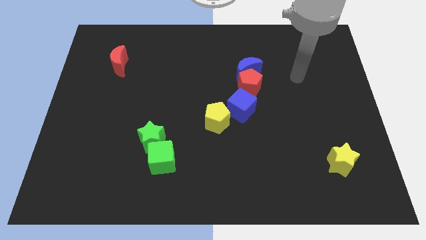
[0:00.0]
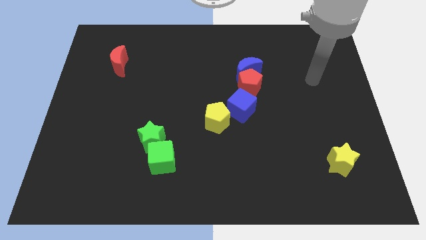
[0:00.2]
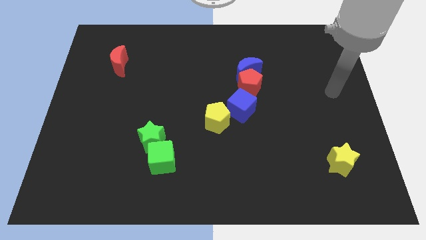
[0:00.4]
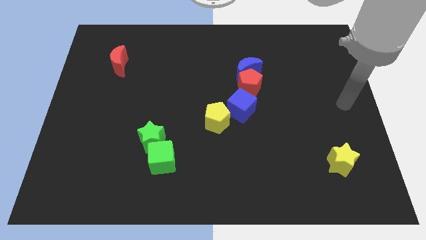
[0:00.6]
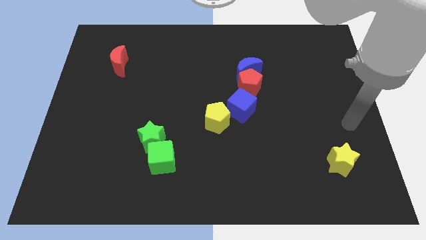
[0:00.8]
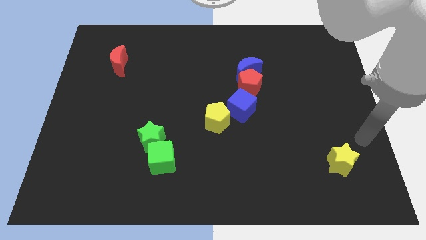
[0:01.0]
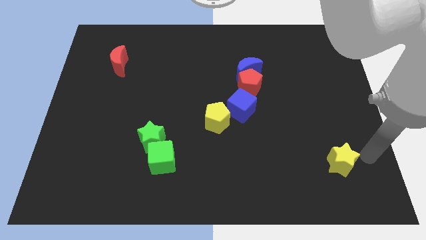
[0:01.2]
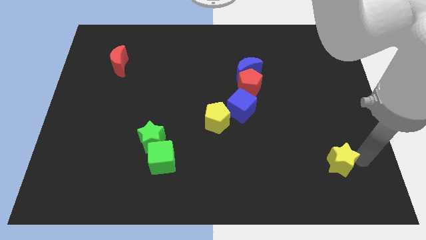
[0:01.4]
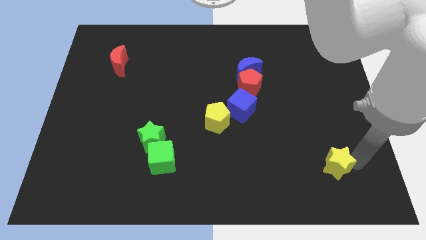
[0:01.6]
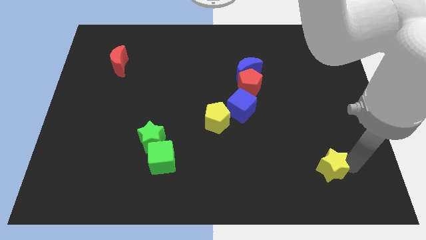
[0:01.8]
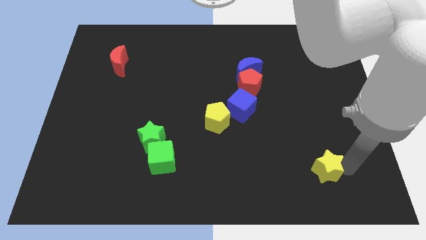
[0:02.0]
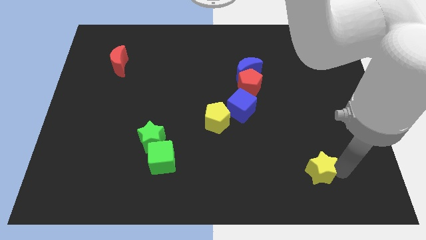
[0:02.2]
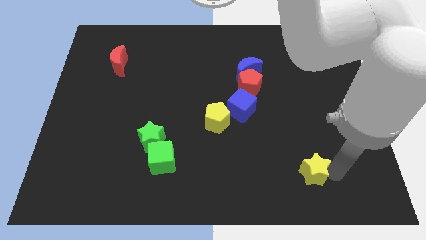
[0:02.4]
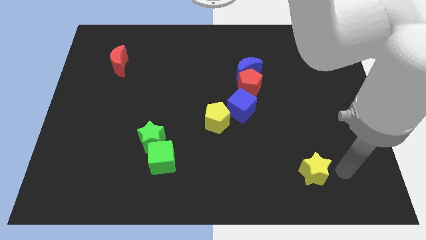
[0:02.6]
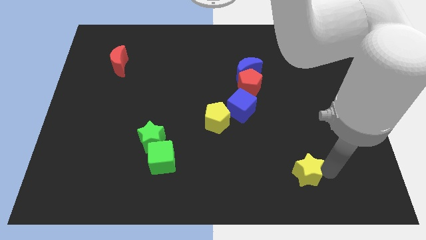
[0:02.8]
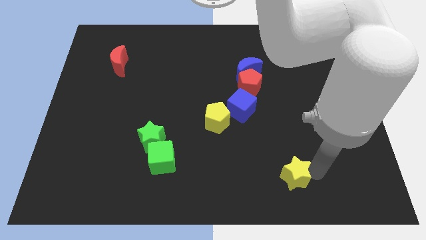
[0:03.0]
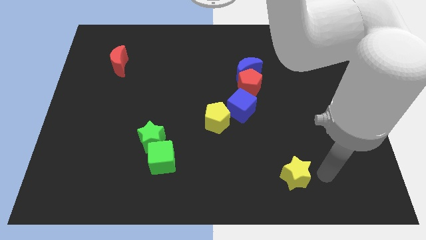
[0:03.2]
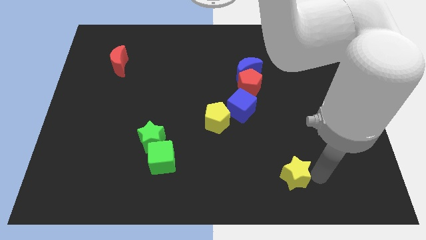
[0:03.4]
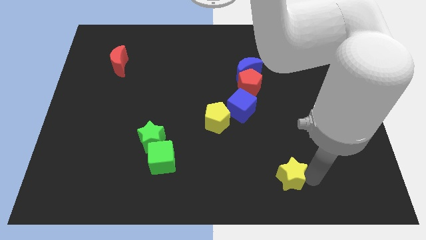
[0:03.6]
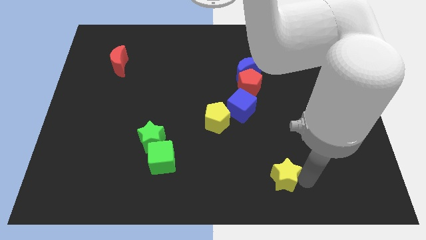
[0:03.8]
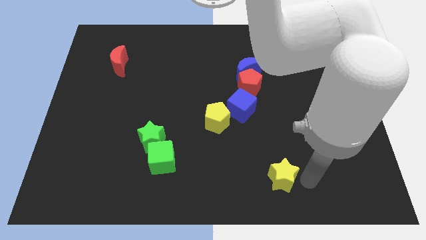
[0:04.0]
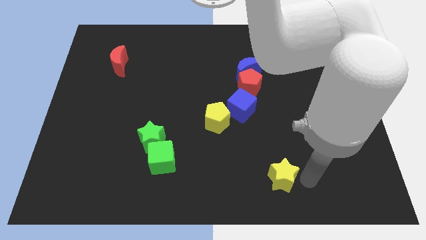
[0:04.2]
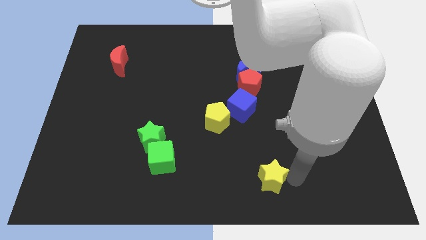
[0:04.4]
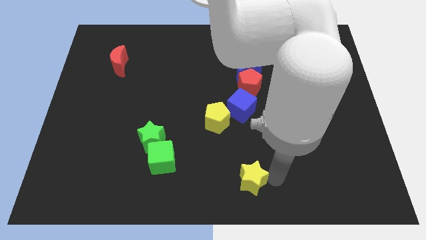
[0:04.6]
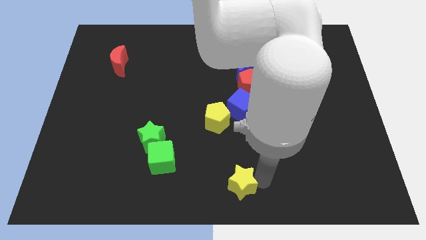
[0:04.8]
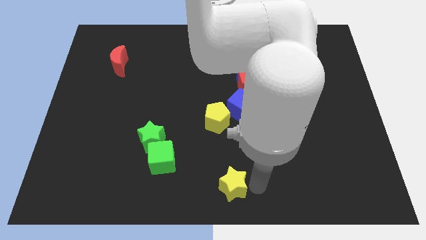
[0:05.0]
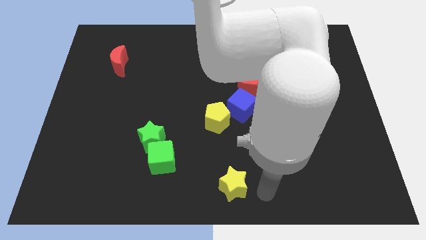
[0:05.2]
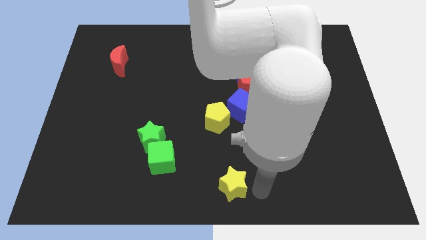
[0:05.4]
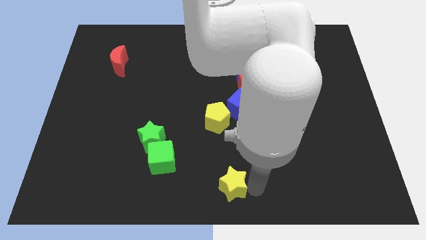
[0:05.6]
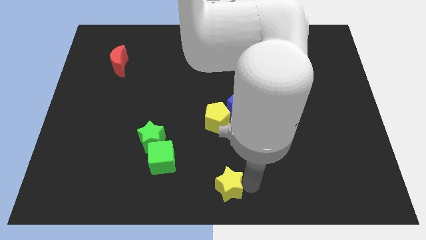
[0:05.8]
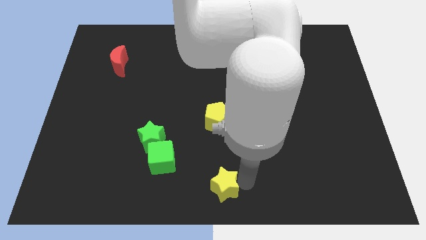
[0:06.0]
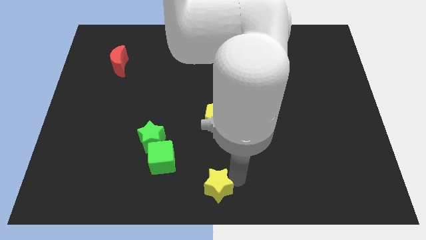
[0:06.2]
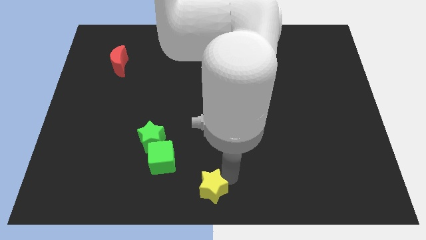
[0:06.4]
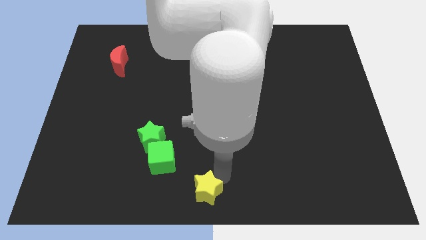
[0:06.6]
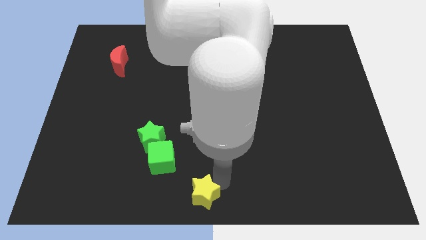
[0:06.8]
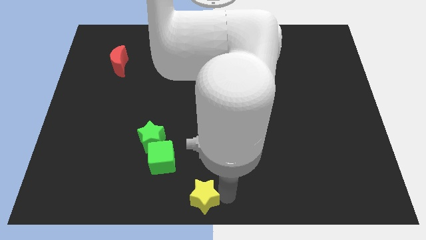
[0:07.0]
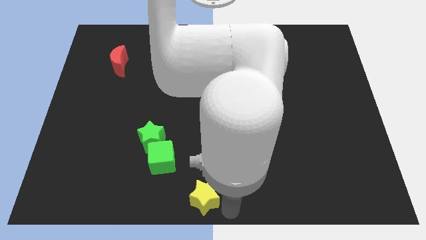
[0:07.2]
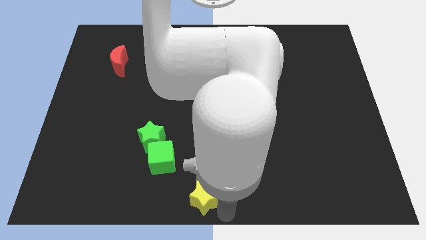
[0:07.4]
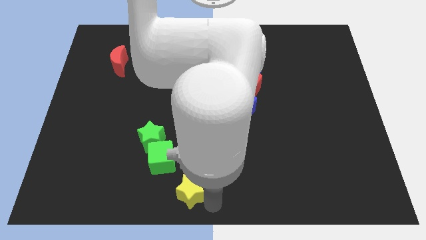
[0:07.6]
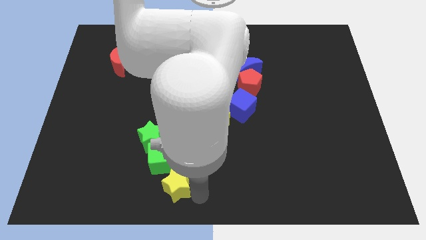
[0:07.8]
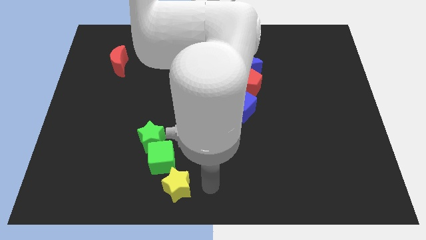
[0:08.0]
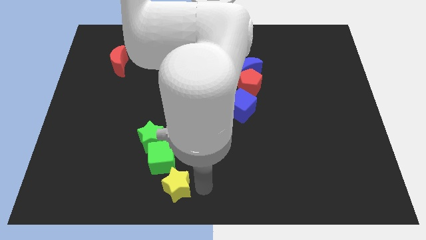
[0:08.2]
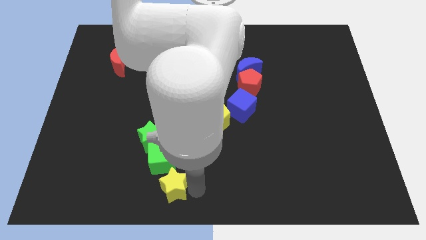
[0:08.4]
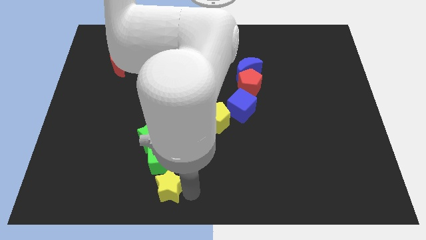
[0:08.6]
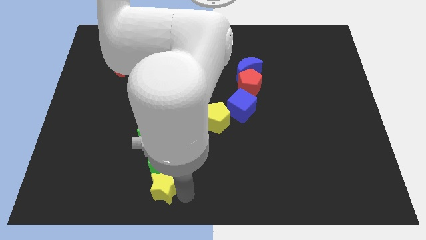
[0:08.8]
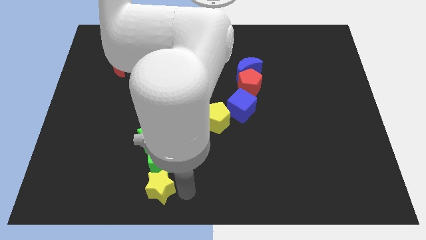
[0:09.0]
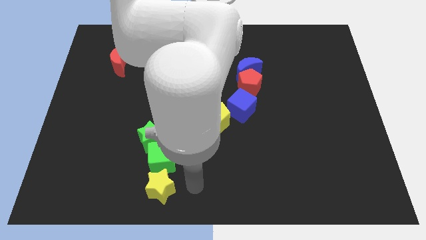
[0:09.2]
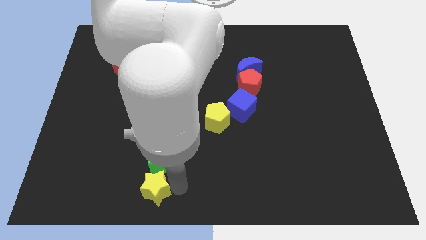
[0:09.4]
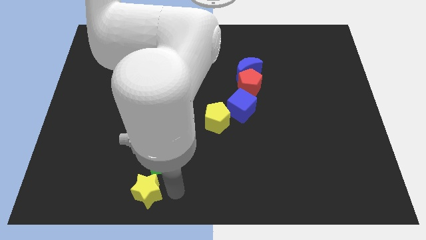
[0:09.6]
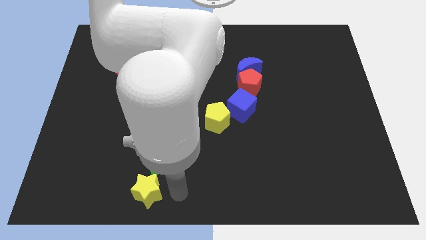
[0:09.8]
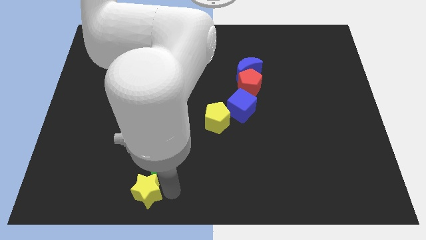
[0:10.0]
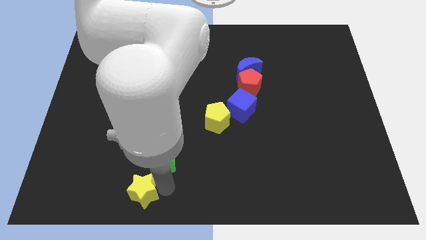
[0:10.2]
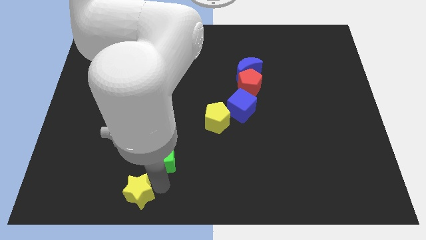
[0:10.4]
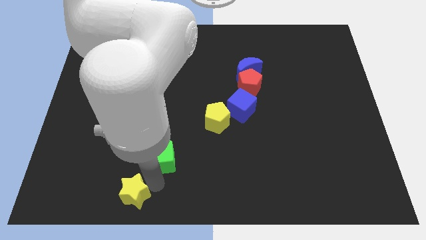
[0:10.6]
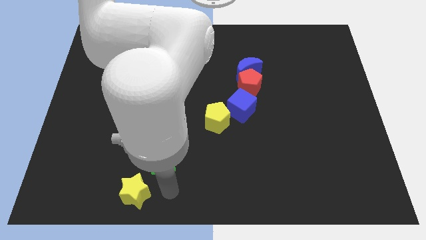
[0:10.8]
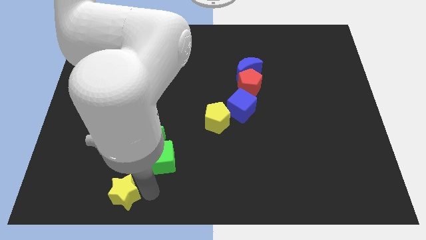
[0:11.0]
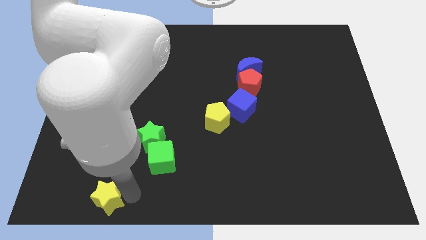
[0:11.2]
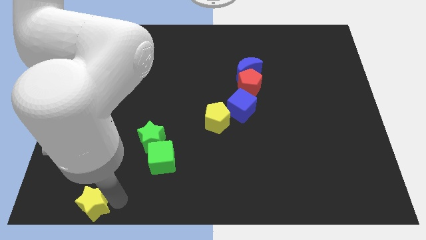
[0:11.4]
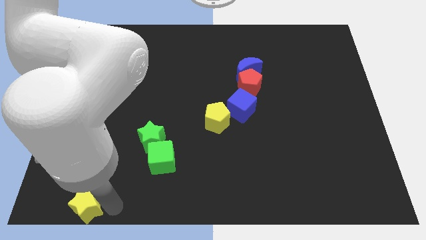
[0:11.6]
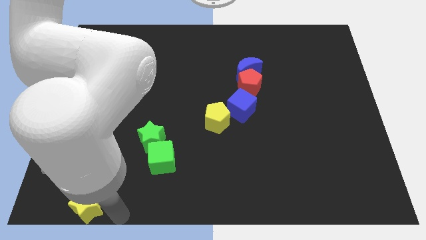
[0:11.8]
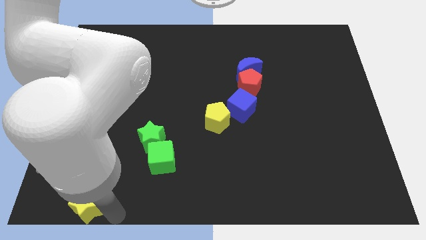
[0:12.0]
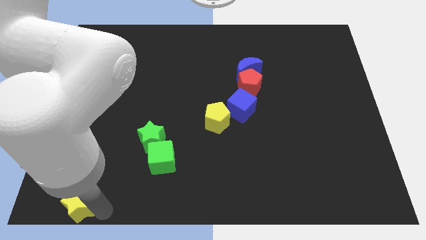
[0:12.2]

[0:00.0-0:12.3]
push the yellow star to the lower left corner
